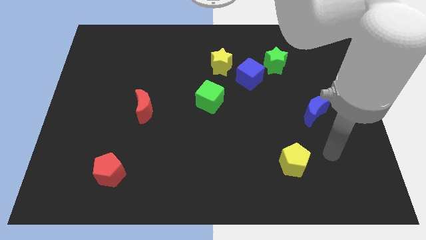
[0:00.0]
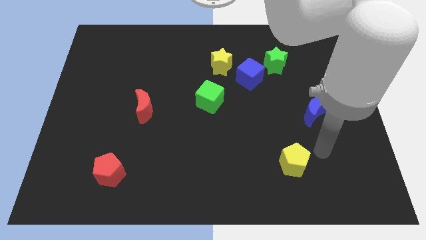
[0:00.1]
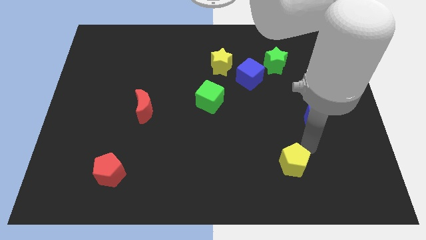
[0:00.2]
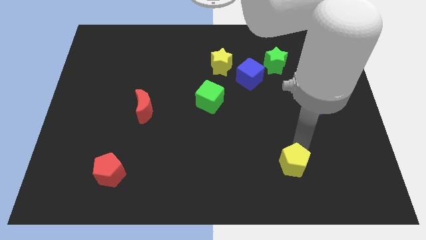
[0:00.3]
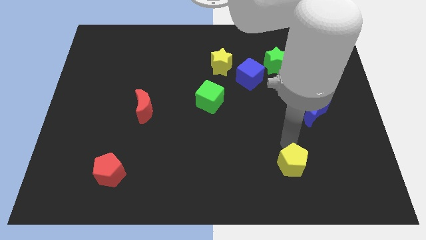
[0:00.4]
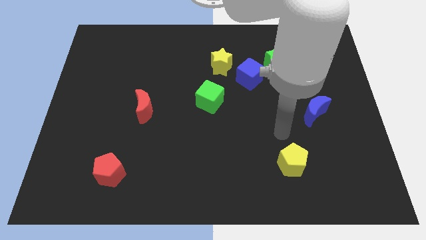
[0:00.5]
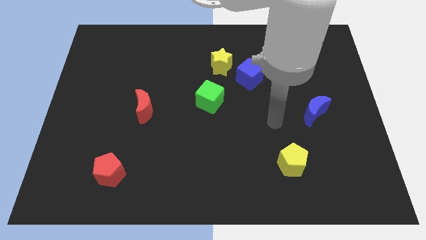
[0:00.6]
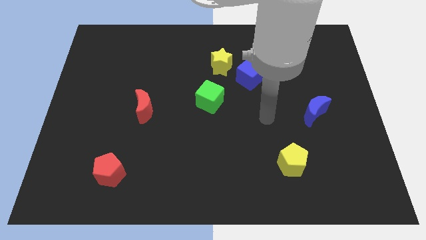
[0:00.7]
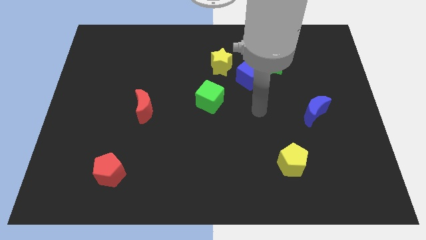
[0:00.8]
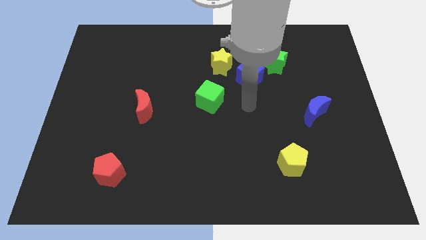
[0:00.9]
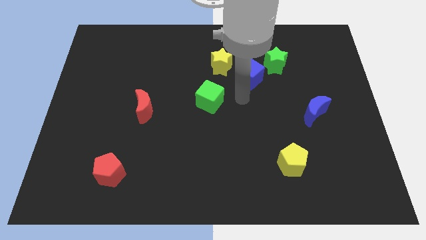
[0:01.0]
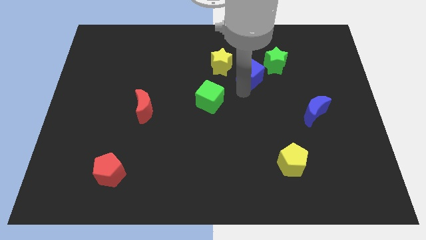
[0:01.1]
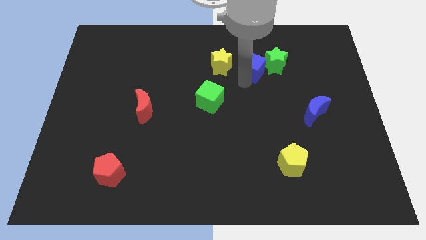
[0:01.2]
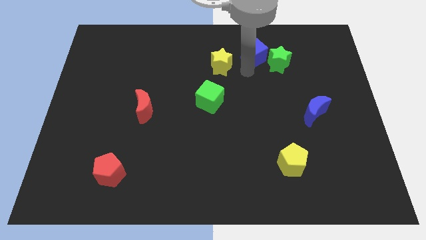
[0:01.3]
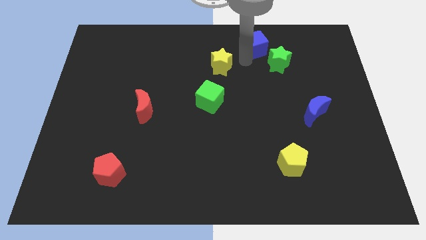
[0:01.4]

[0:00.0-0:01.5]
pull the yellow star apart from the blue cube

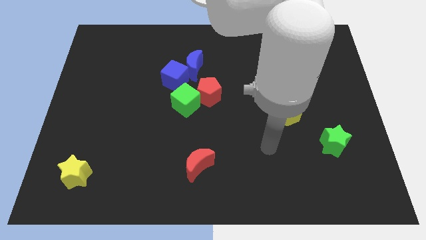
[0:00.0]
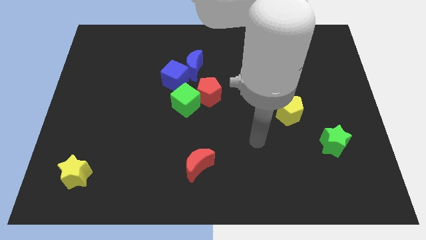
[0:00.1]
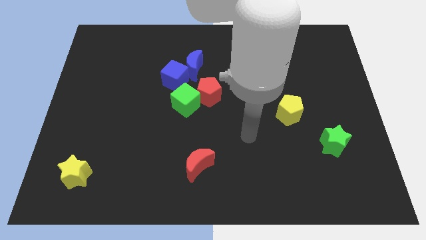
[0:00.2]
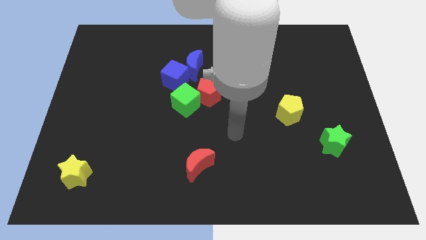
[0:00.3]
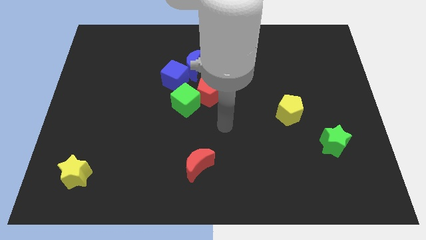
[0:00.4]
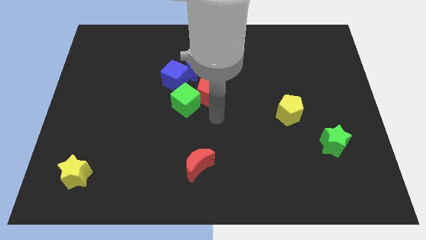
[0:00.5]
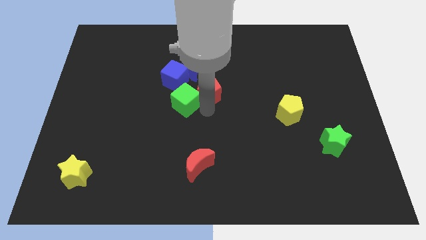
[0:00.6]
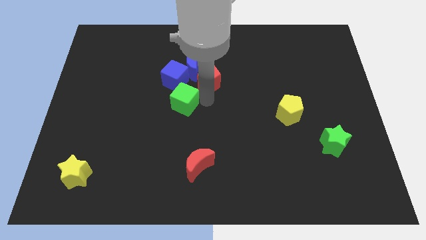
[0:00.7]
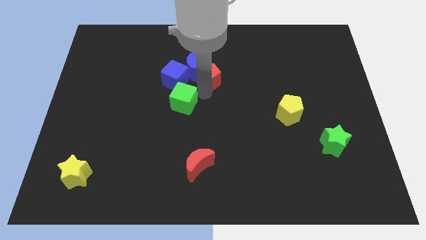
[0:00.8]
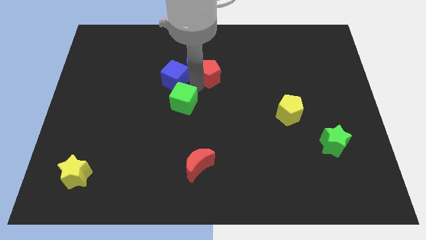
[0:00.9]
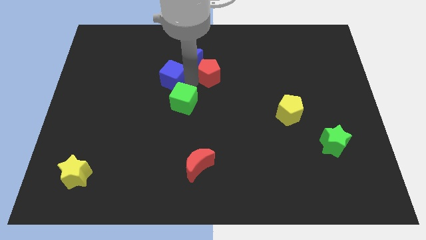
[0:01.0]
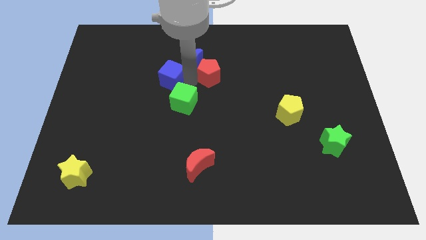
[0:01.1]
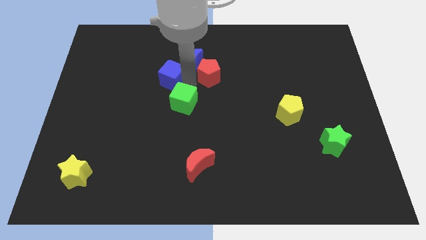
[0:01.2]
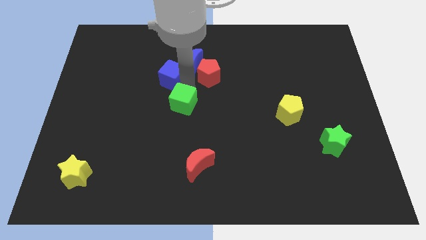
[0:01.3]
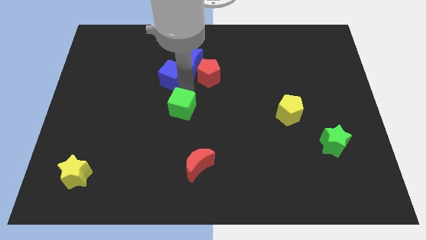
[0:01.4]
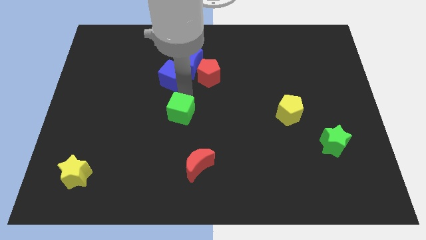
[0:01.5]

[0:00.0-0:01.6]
pull the green cube apart from the red pentagon and blue cube

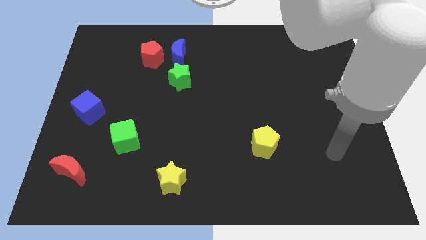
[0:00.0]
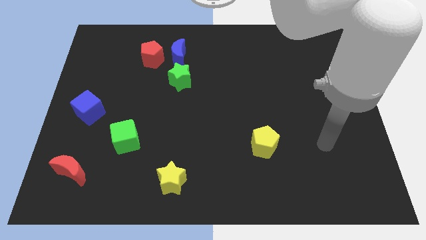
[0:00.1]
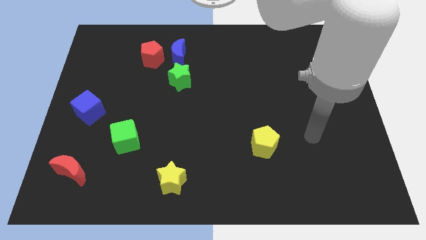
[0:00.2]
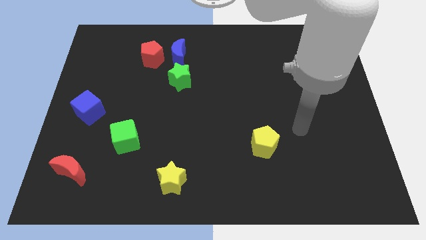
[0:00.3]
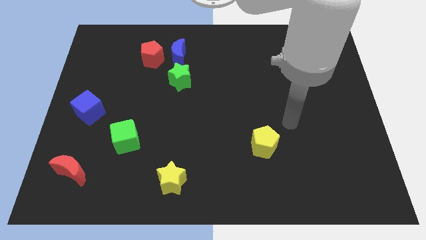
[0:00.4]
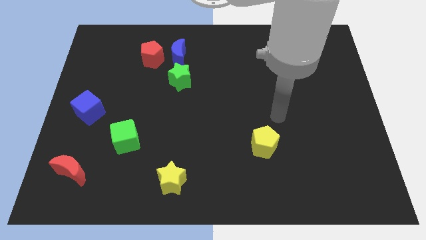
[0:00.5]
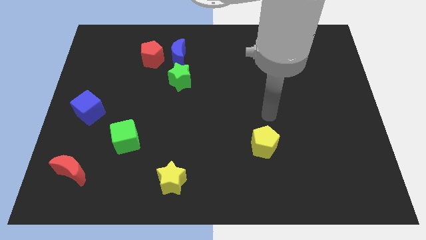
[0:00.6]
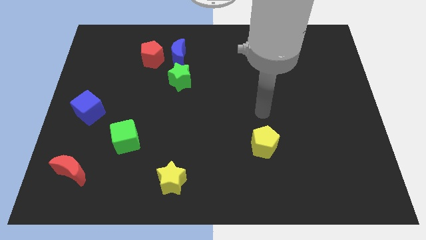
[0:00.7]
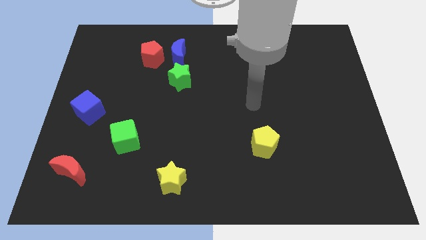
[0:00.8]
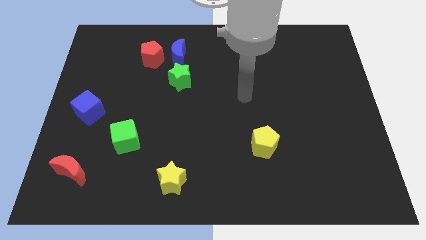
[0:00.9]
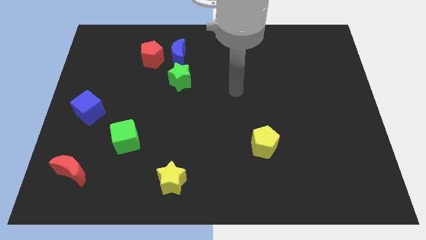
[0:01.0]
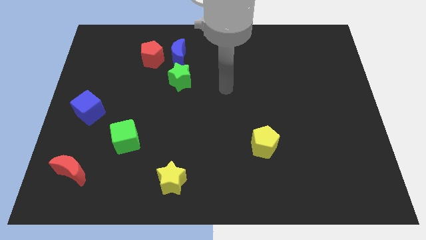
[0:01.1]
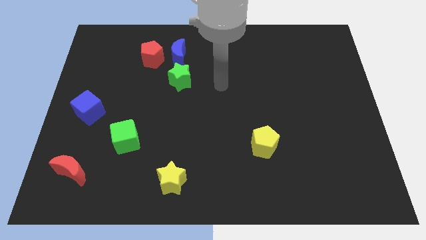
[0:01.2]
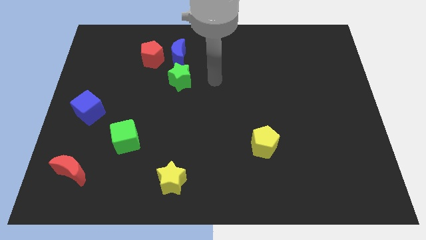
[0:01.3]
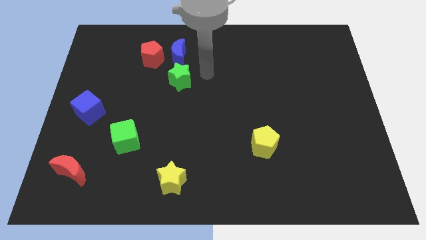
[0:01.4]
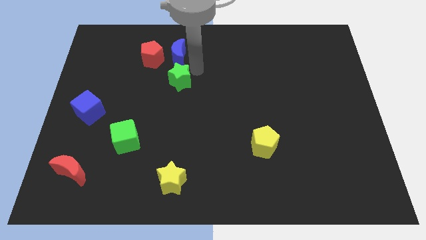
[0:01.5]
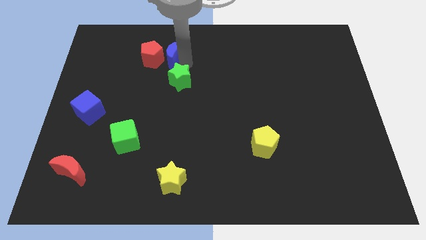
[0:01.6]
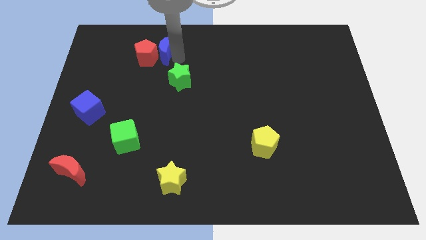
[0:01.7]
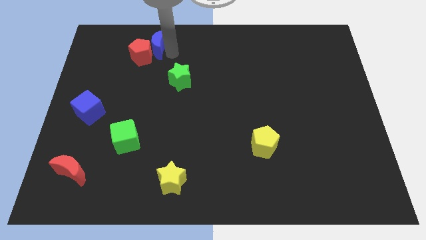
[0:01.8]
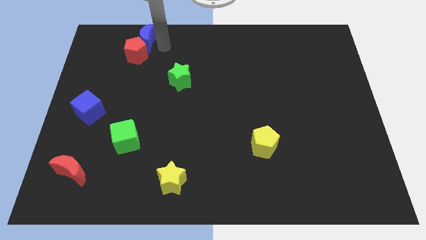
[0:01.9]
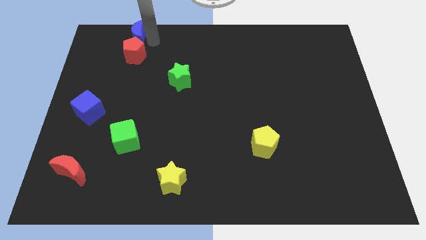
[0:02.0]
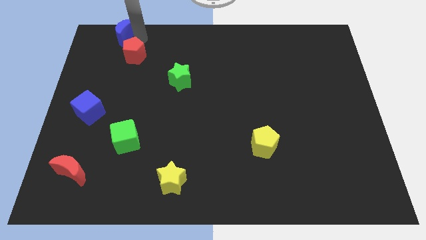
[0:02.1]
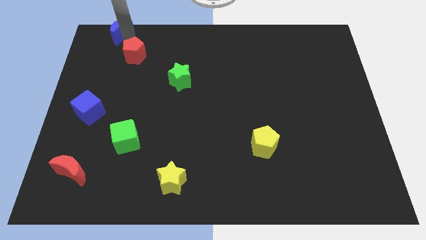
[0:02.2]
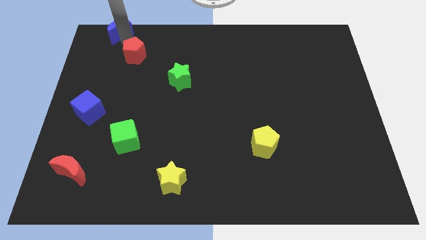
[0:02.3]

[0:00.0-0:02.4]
move the red pentagon away from the blue moon

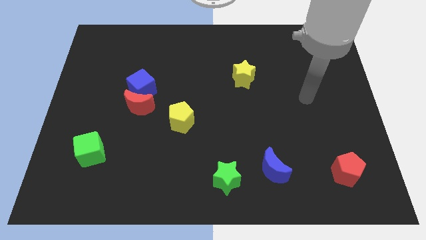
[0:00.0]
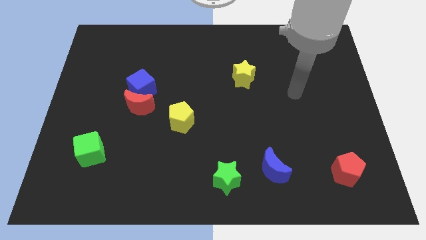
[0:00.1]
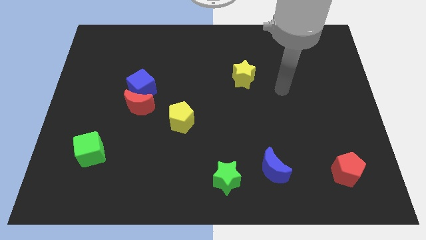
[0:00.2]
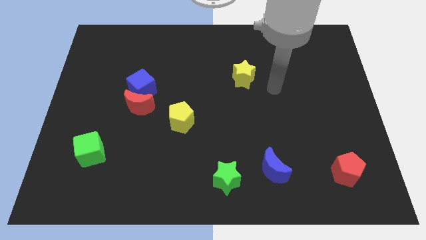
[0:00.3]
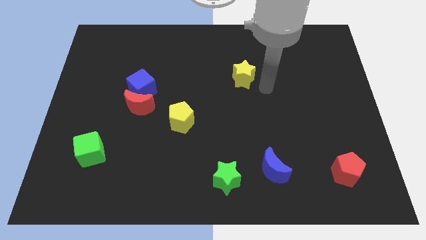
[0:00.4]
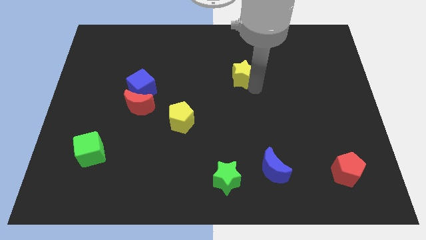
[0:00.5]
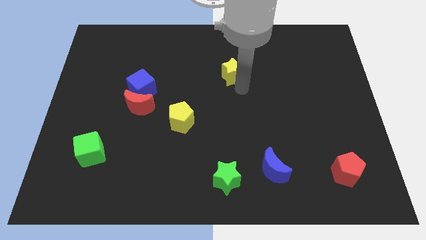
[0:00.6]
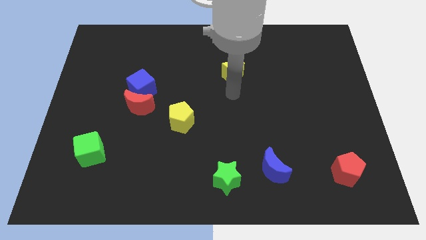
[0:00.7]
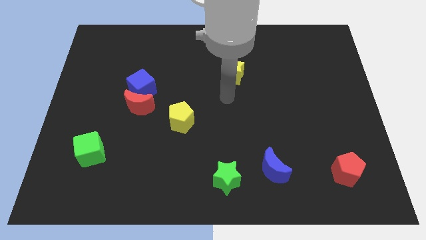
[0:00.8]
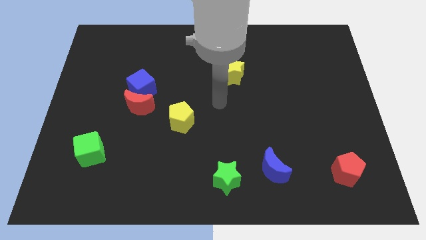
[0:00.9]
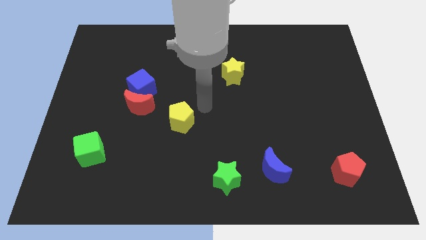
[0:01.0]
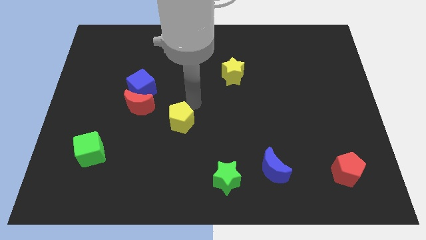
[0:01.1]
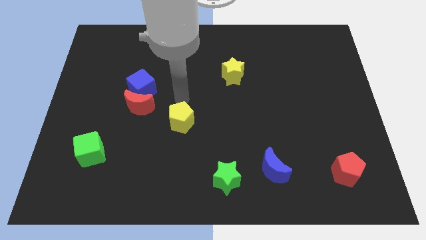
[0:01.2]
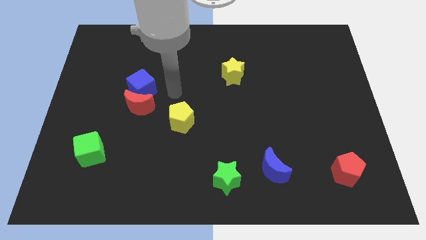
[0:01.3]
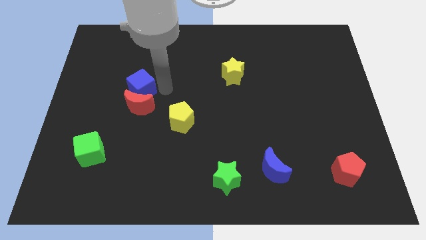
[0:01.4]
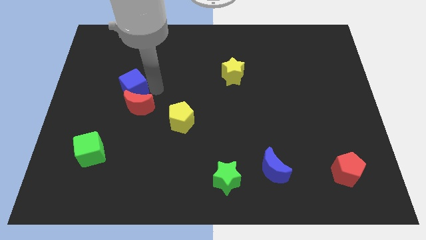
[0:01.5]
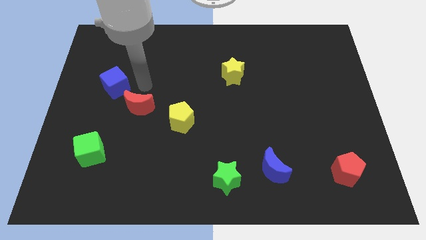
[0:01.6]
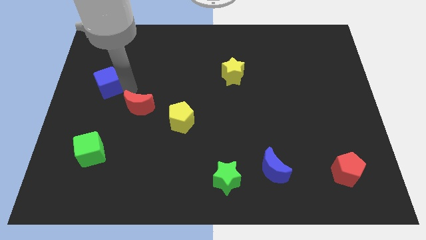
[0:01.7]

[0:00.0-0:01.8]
pull the red moon apart from the blue cube

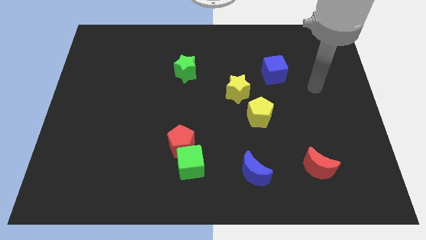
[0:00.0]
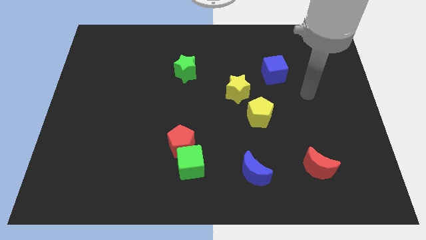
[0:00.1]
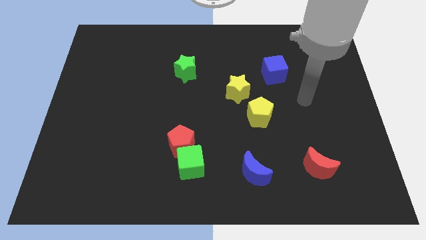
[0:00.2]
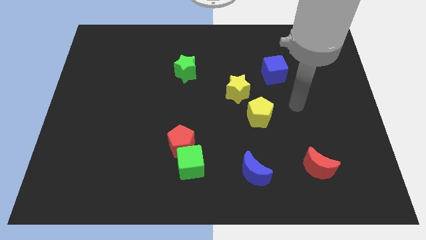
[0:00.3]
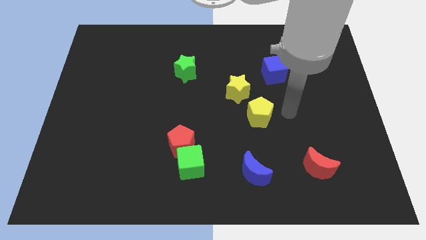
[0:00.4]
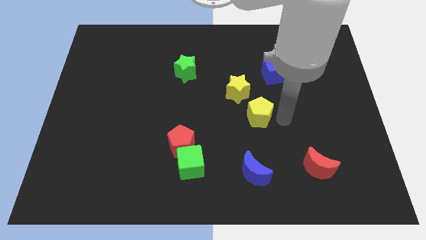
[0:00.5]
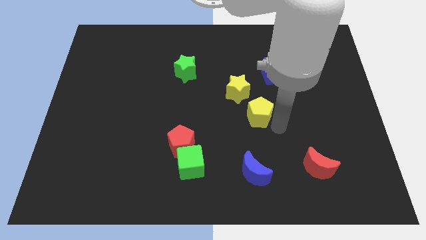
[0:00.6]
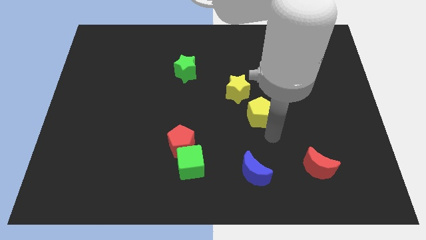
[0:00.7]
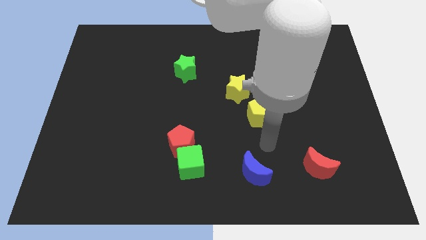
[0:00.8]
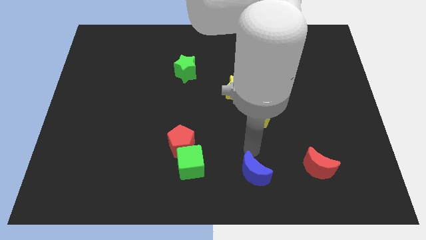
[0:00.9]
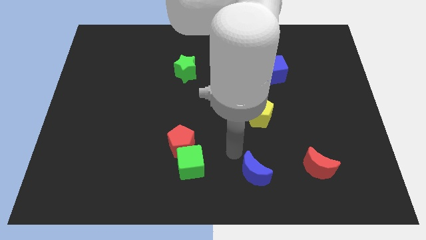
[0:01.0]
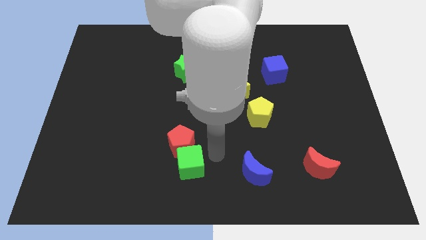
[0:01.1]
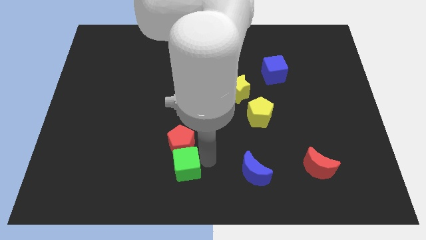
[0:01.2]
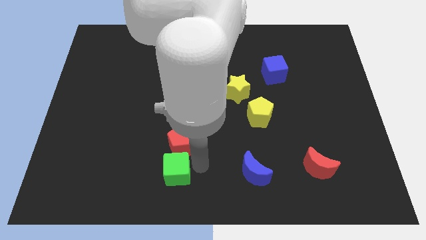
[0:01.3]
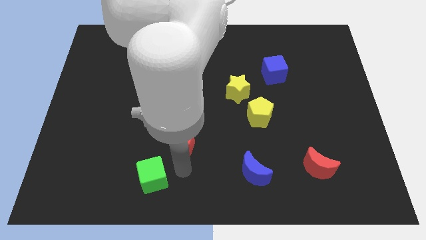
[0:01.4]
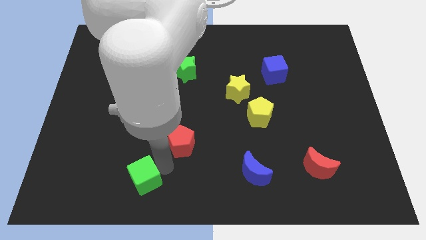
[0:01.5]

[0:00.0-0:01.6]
separate the red pentagon from the green cube

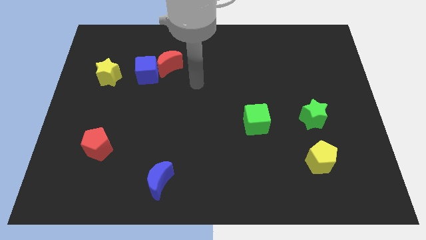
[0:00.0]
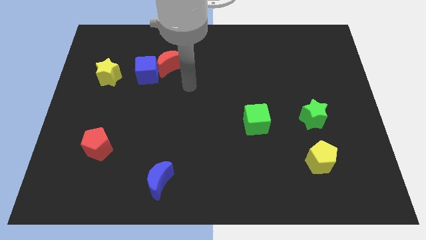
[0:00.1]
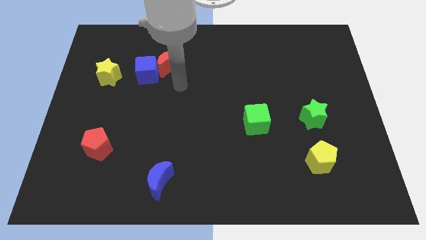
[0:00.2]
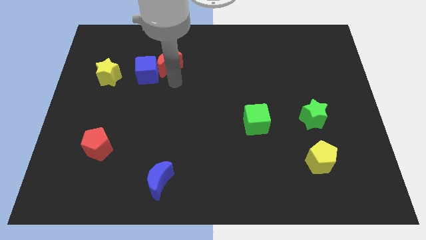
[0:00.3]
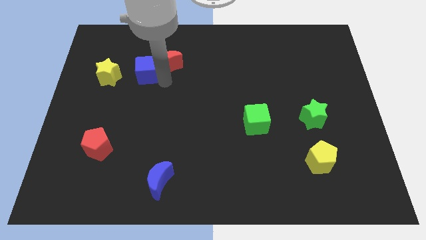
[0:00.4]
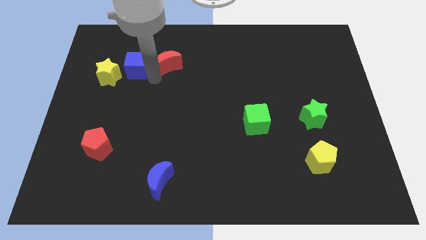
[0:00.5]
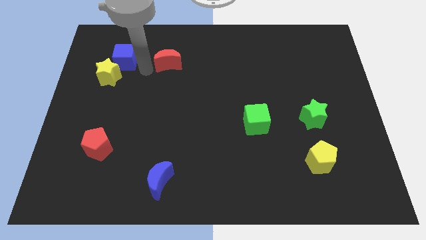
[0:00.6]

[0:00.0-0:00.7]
separate the red moon from the blue cube
